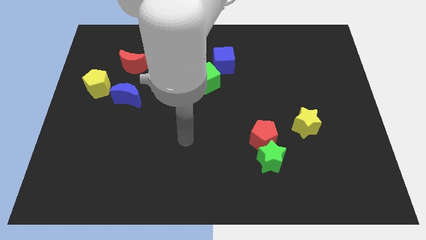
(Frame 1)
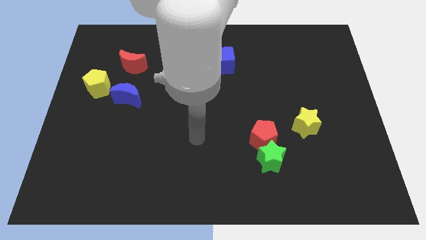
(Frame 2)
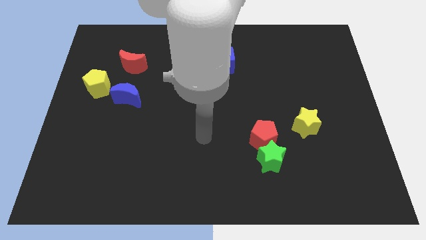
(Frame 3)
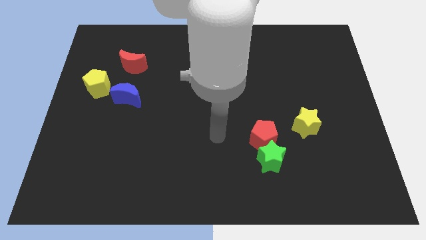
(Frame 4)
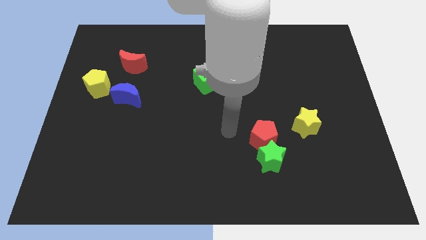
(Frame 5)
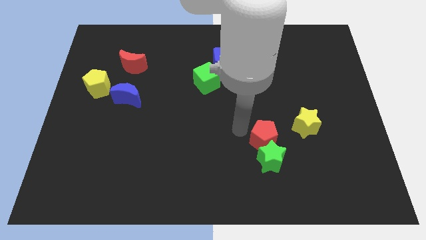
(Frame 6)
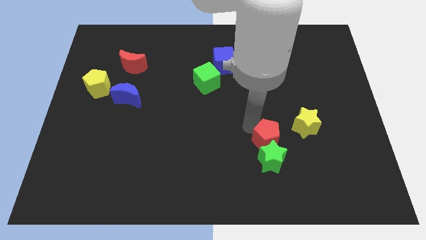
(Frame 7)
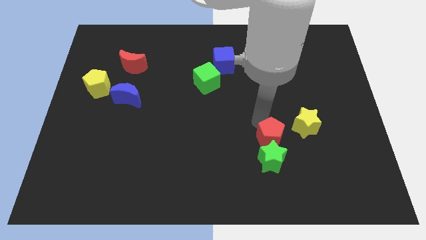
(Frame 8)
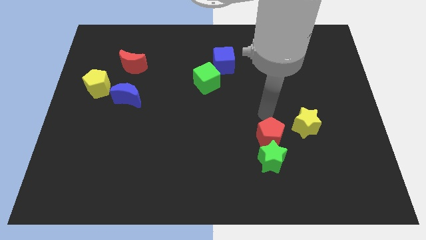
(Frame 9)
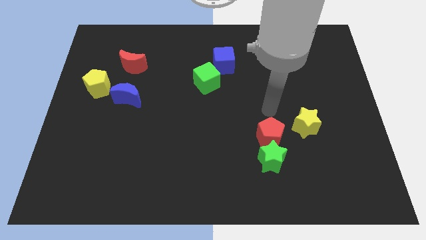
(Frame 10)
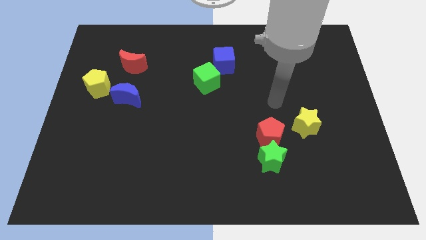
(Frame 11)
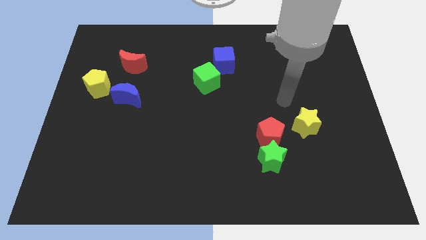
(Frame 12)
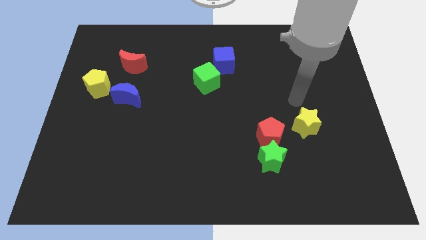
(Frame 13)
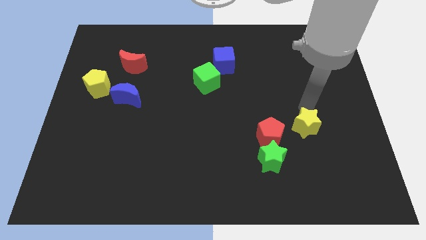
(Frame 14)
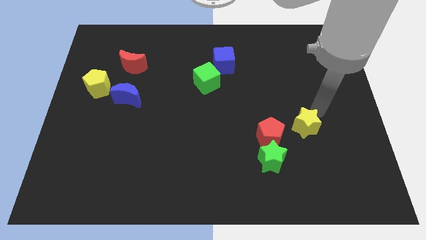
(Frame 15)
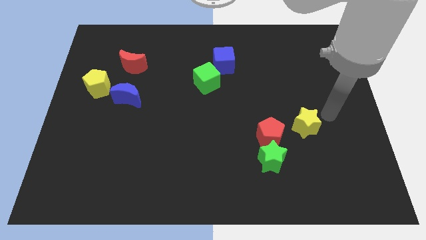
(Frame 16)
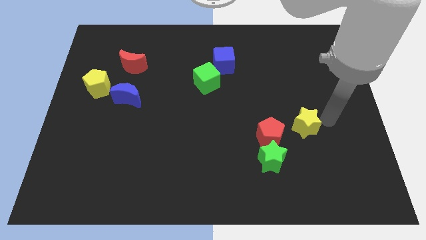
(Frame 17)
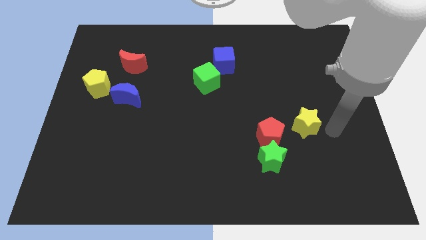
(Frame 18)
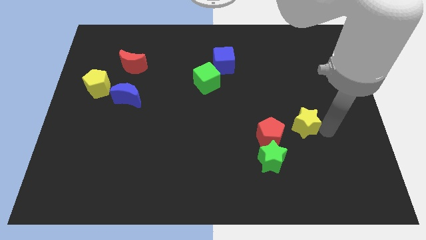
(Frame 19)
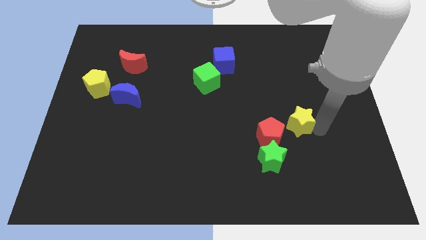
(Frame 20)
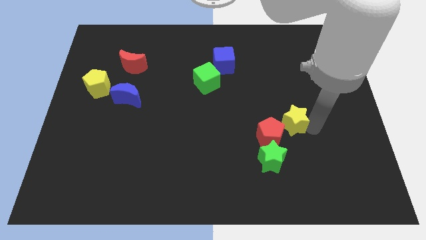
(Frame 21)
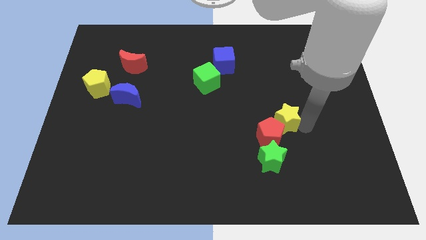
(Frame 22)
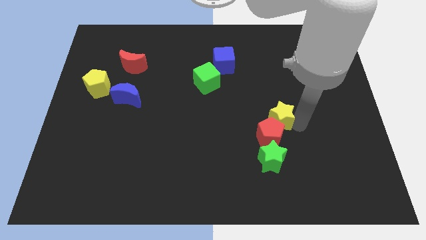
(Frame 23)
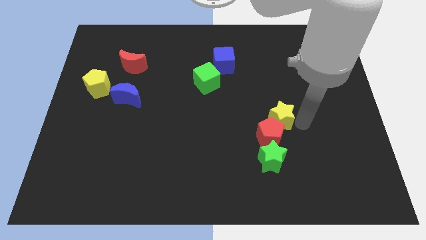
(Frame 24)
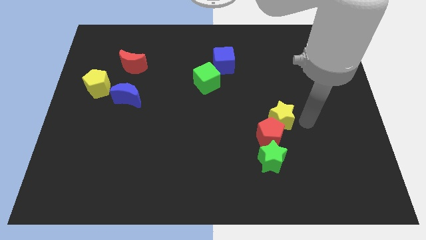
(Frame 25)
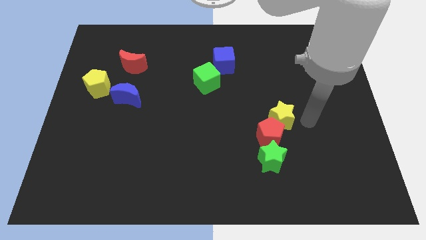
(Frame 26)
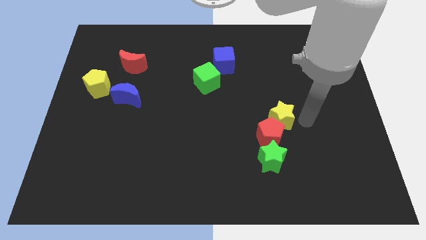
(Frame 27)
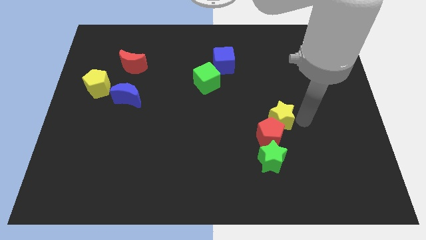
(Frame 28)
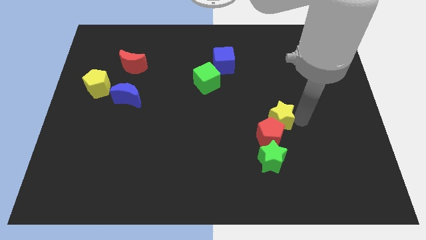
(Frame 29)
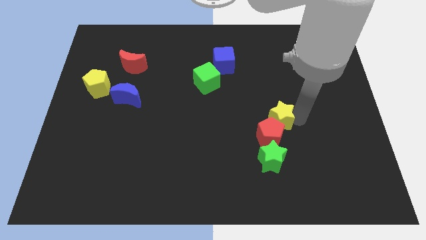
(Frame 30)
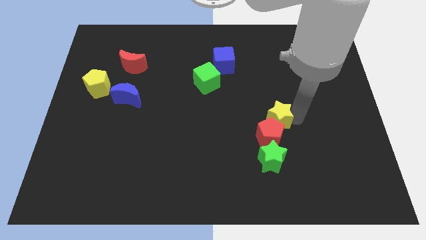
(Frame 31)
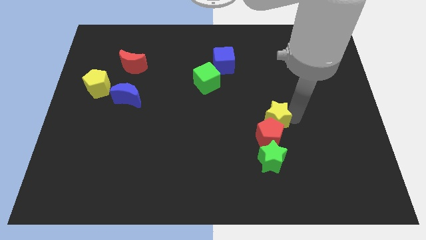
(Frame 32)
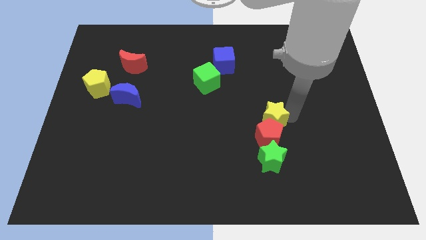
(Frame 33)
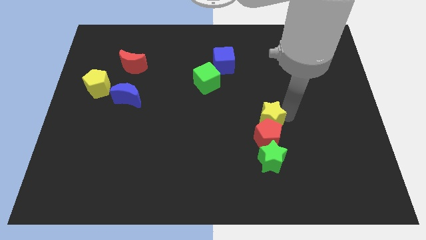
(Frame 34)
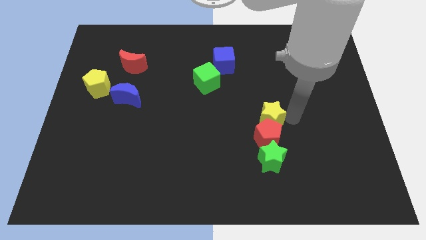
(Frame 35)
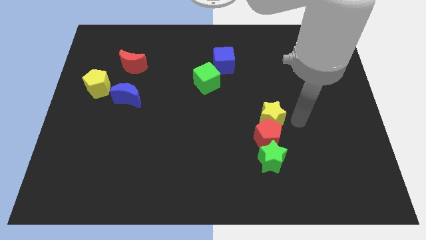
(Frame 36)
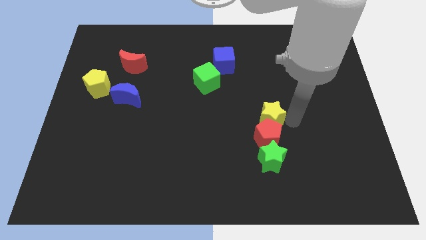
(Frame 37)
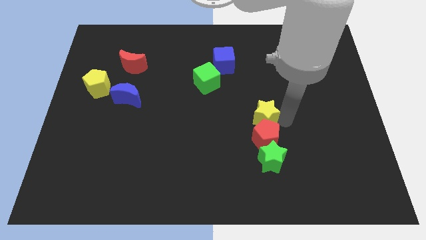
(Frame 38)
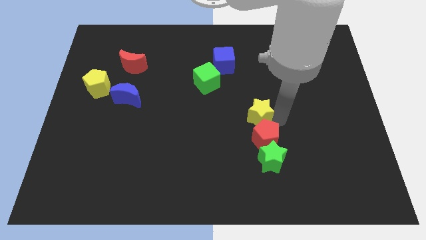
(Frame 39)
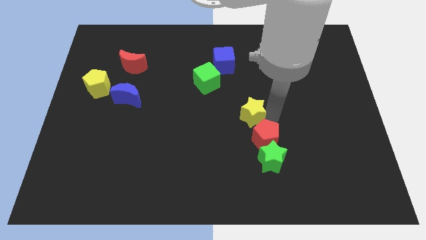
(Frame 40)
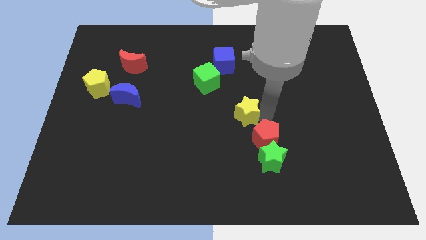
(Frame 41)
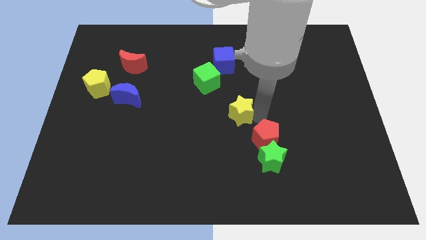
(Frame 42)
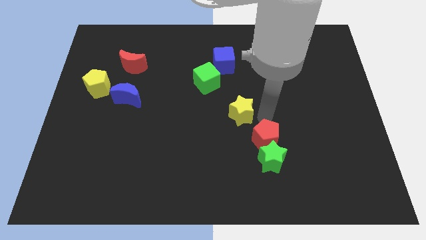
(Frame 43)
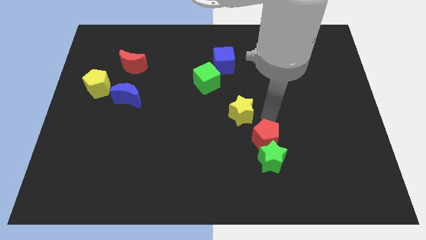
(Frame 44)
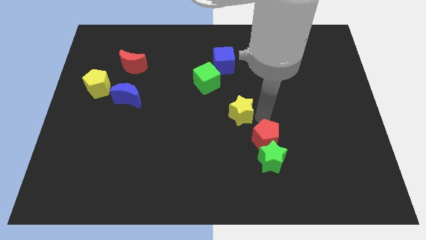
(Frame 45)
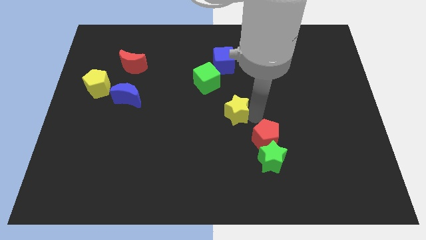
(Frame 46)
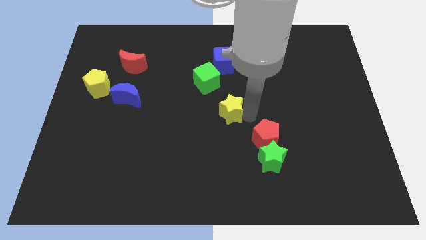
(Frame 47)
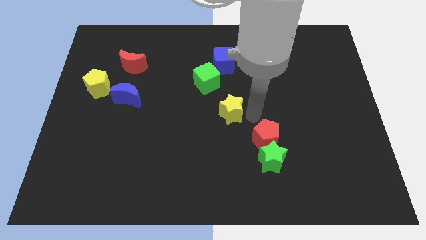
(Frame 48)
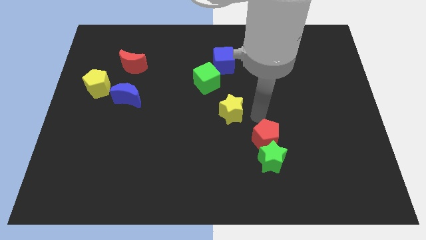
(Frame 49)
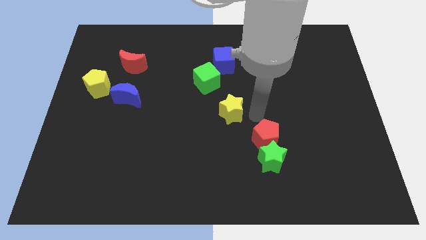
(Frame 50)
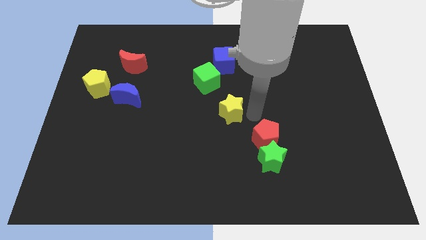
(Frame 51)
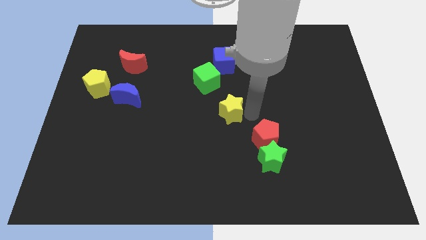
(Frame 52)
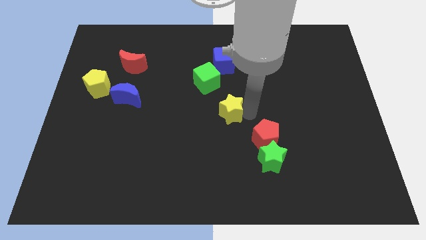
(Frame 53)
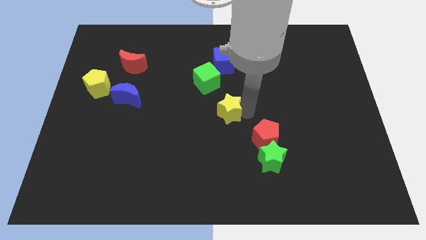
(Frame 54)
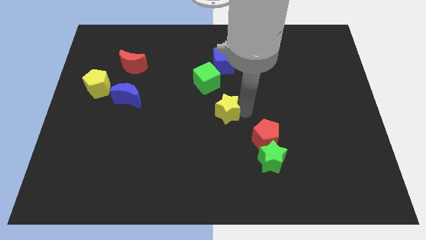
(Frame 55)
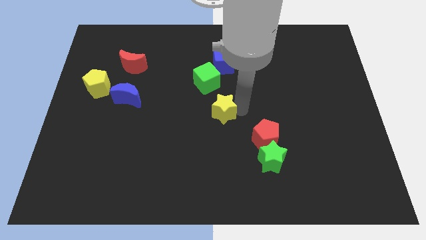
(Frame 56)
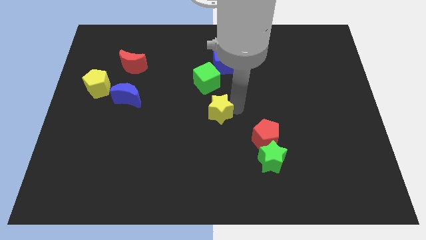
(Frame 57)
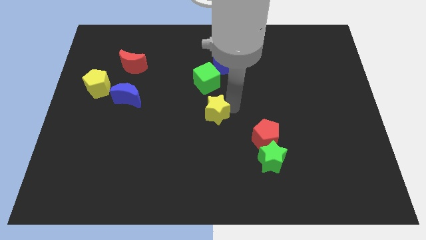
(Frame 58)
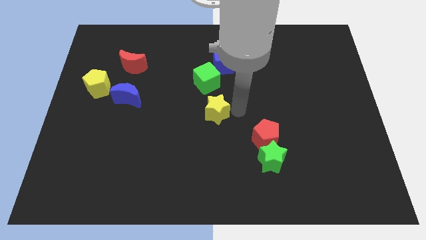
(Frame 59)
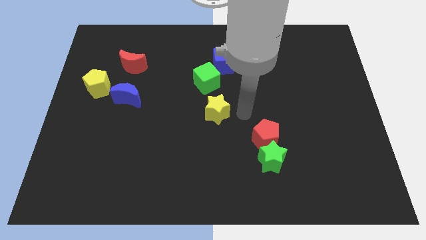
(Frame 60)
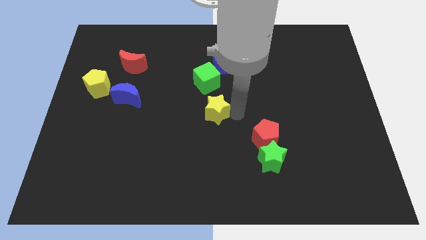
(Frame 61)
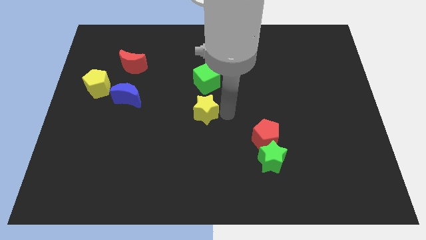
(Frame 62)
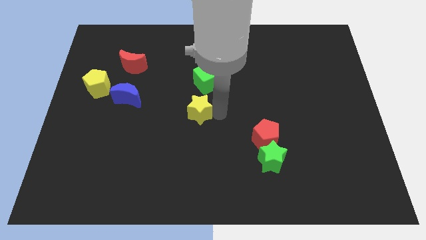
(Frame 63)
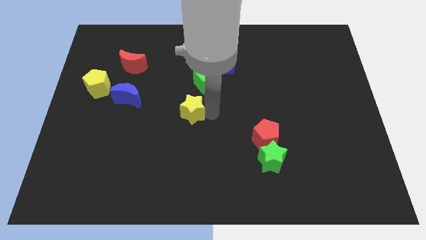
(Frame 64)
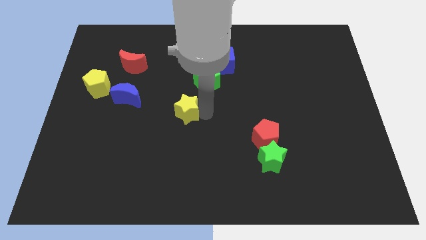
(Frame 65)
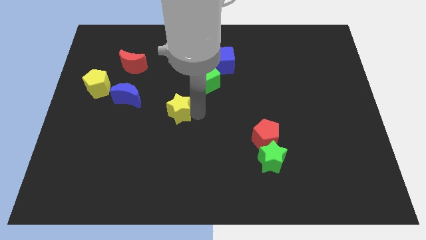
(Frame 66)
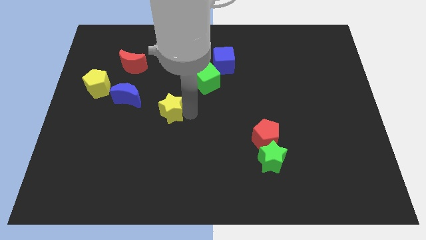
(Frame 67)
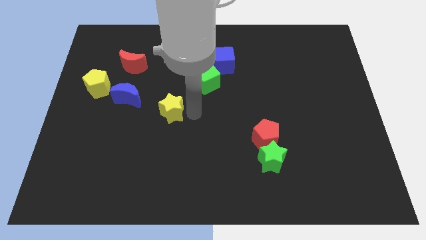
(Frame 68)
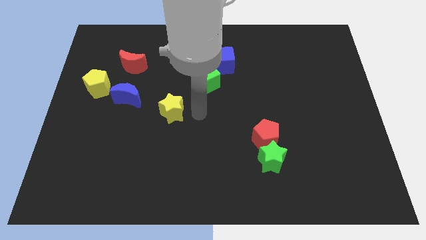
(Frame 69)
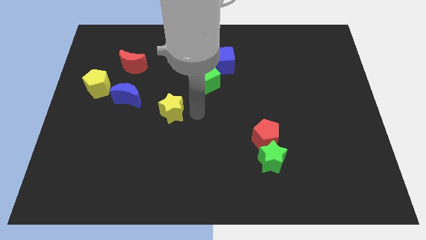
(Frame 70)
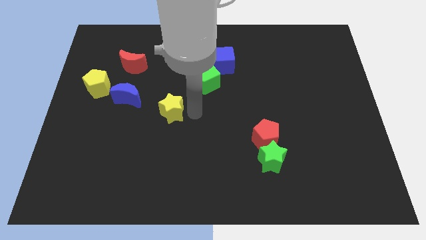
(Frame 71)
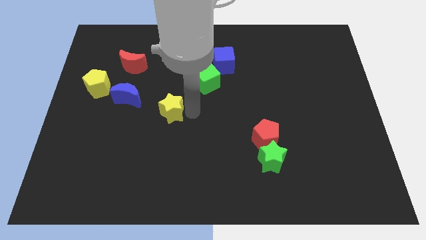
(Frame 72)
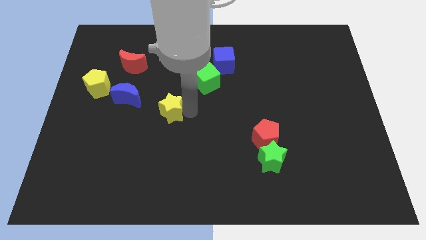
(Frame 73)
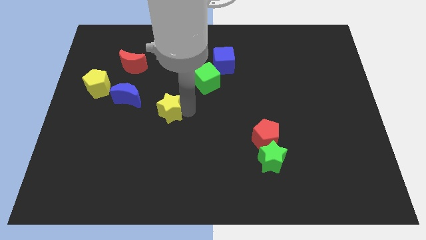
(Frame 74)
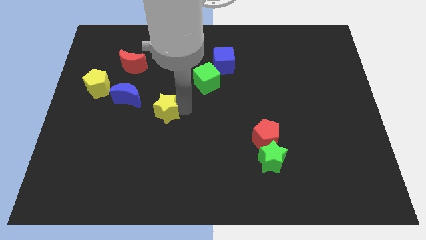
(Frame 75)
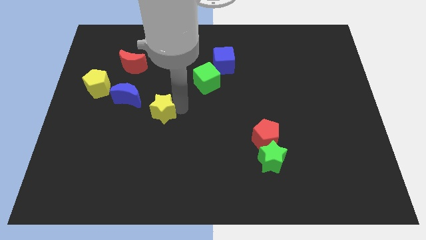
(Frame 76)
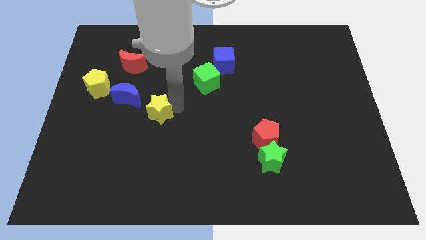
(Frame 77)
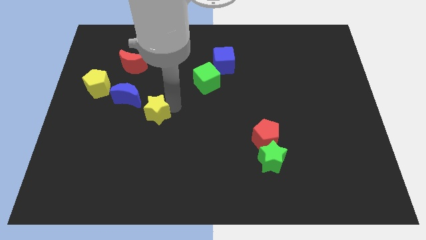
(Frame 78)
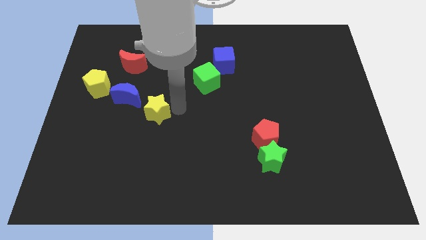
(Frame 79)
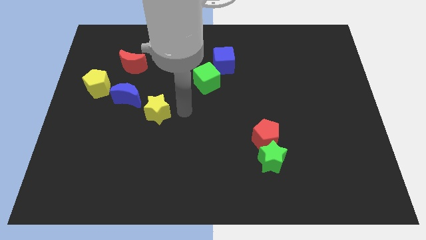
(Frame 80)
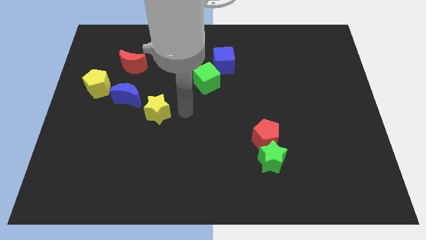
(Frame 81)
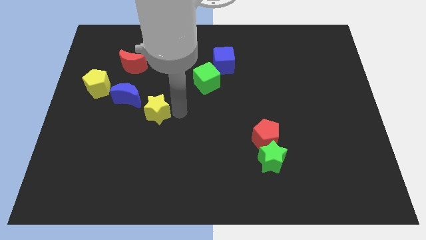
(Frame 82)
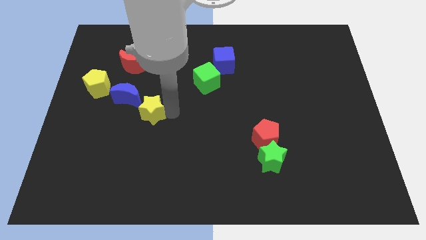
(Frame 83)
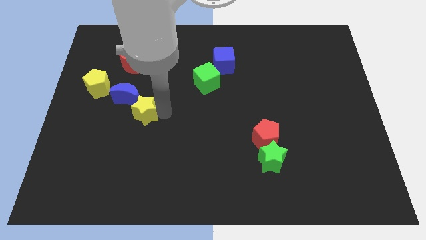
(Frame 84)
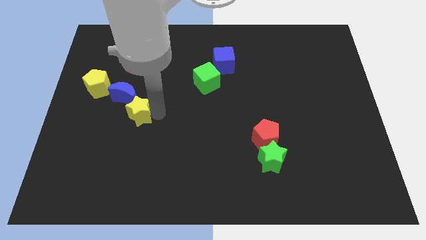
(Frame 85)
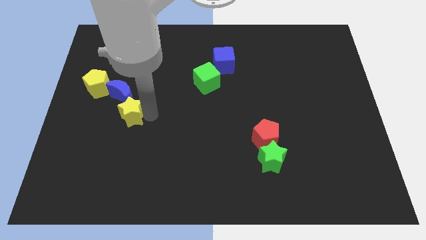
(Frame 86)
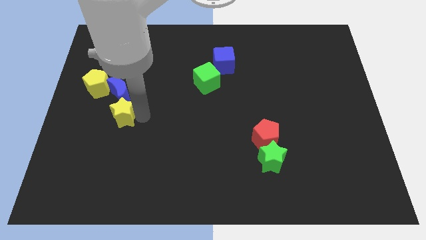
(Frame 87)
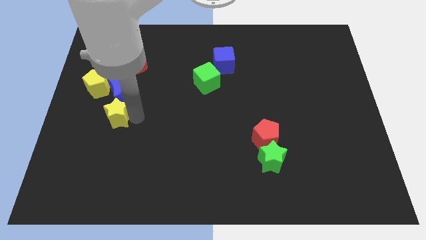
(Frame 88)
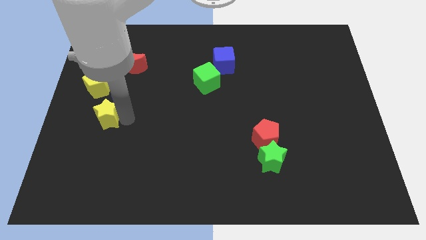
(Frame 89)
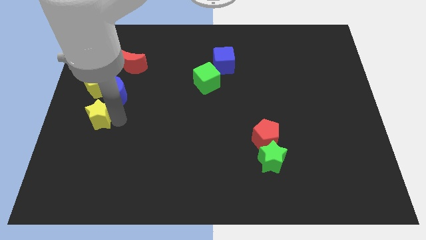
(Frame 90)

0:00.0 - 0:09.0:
put the yellow star to the left side
